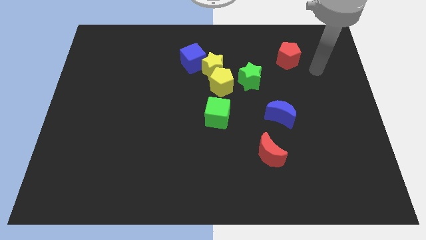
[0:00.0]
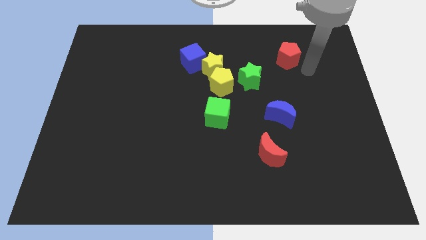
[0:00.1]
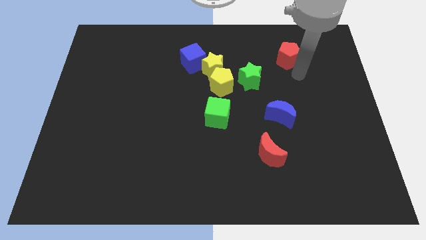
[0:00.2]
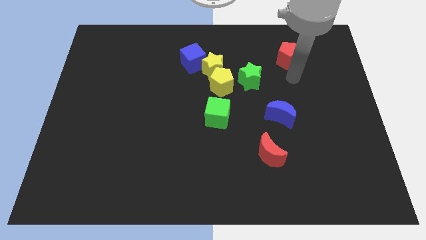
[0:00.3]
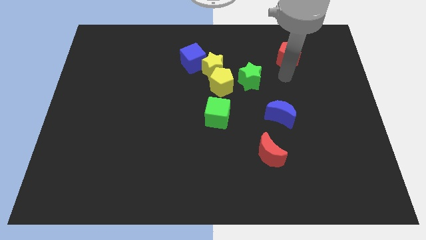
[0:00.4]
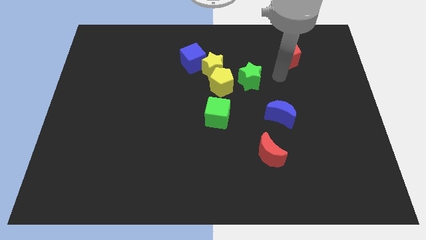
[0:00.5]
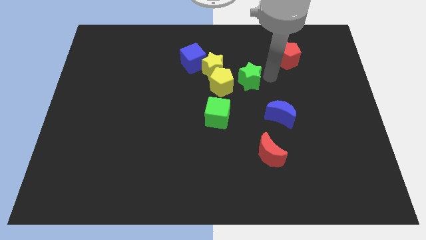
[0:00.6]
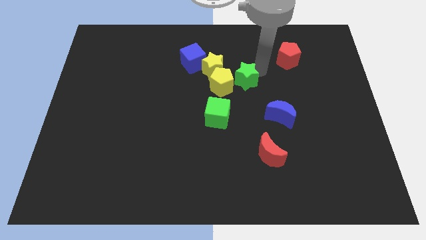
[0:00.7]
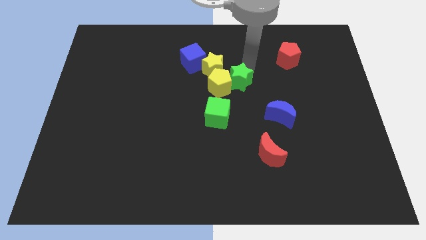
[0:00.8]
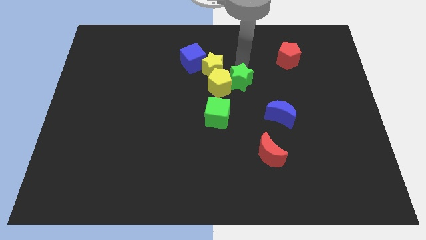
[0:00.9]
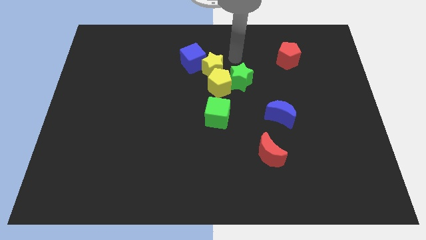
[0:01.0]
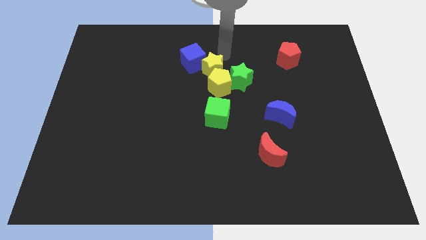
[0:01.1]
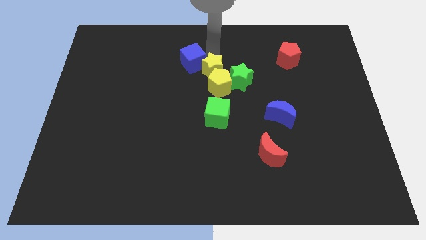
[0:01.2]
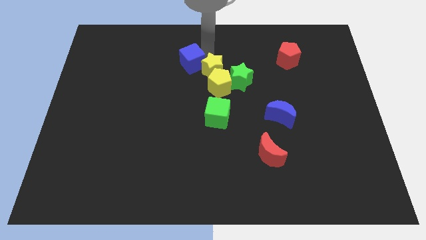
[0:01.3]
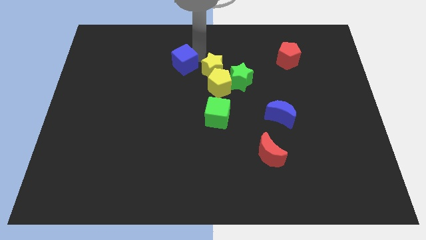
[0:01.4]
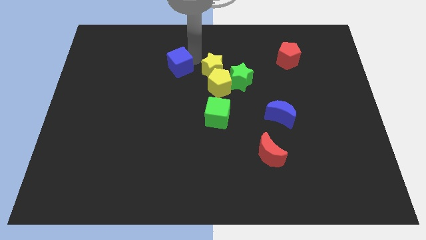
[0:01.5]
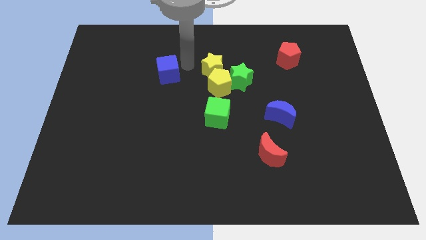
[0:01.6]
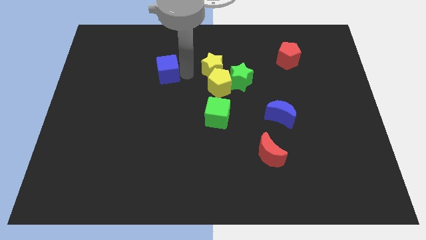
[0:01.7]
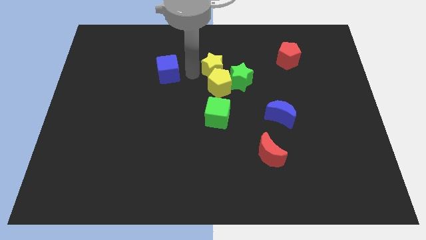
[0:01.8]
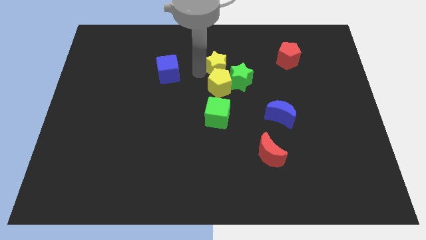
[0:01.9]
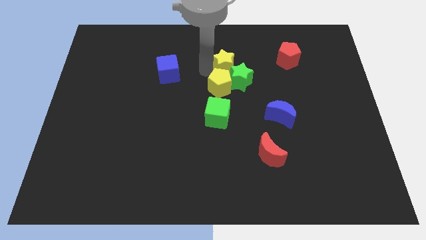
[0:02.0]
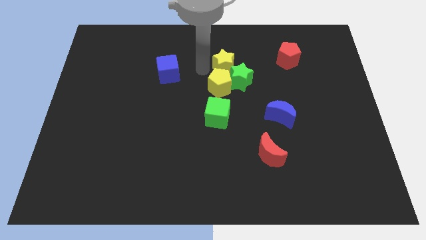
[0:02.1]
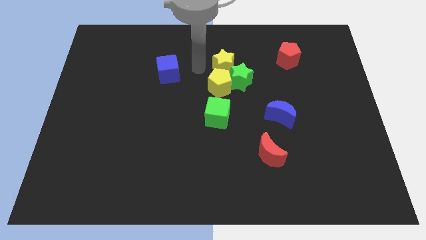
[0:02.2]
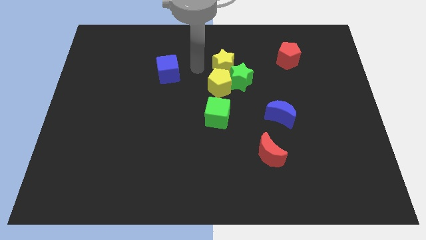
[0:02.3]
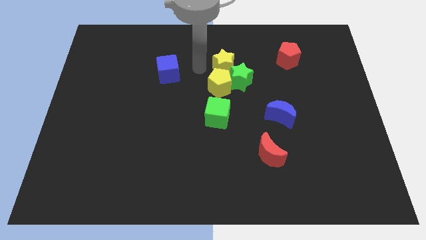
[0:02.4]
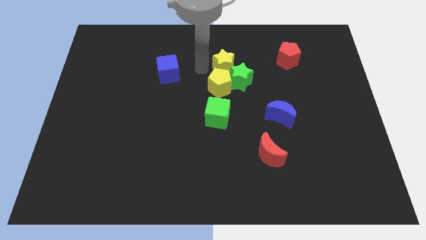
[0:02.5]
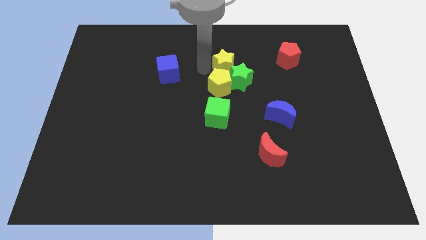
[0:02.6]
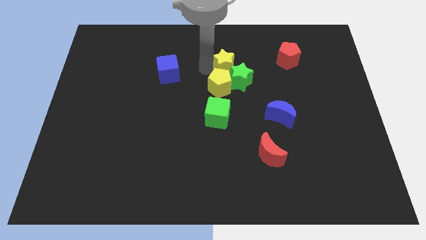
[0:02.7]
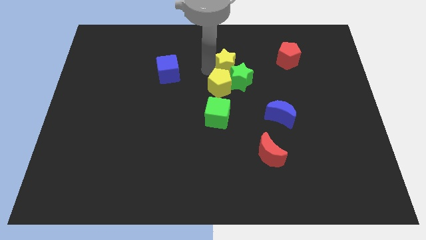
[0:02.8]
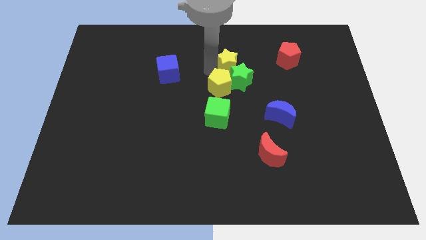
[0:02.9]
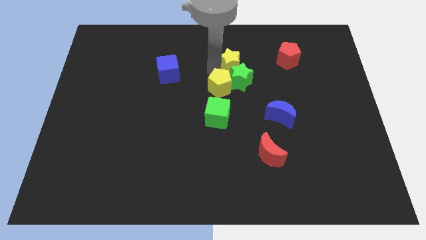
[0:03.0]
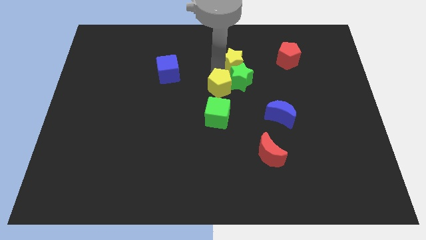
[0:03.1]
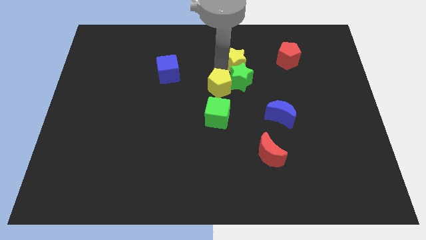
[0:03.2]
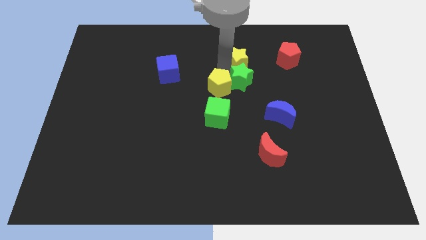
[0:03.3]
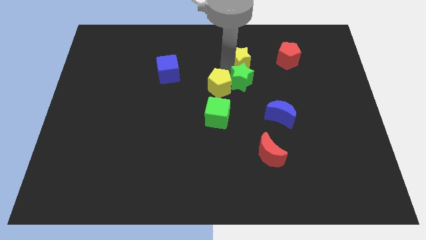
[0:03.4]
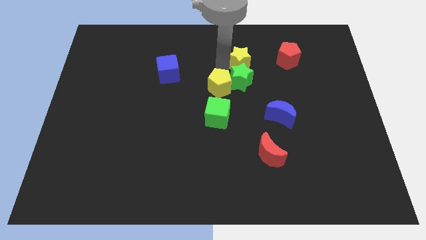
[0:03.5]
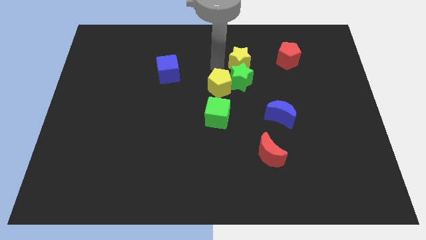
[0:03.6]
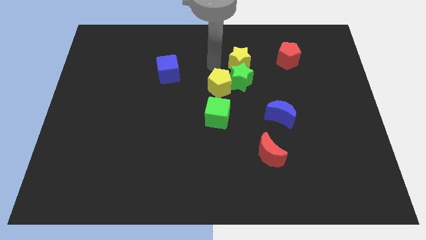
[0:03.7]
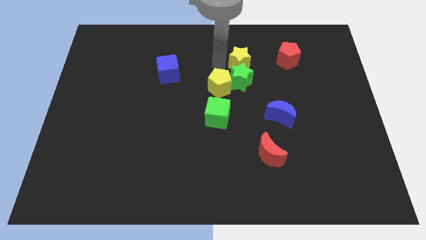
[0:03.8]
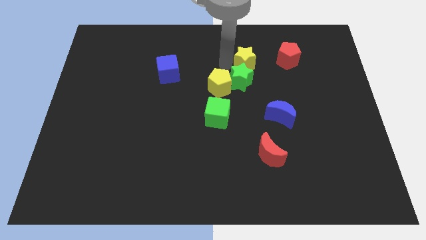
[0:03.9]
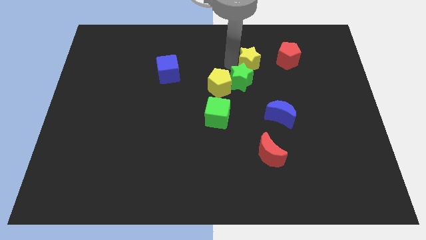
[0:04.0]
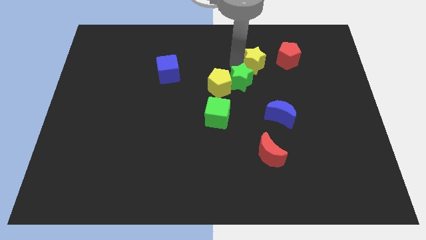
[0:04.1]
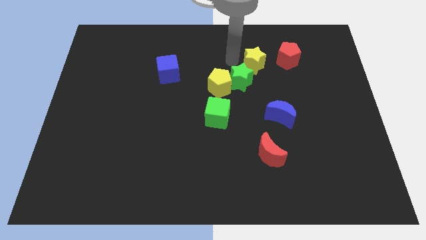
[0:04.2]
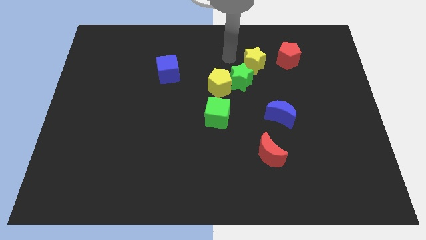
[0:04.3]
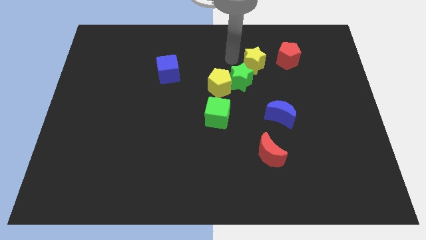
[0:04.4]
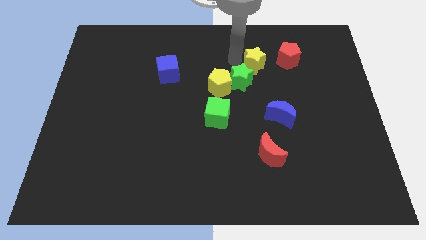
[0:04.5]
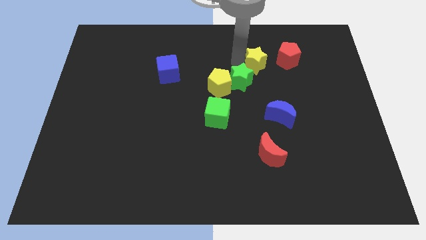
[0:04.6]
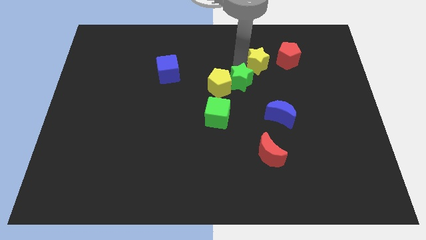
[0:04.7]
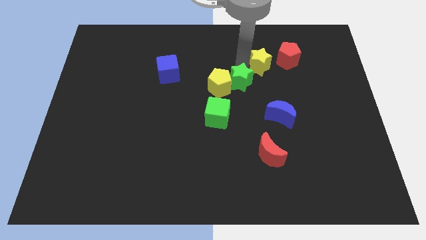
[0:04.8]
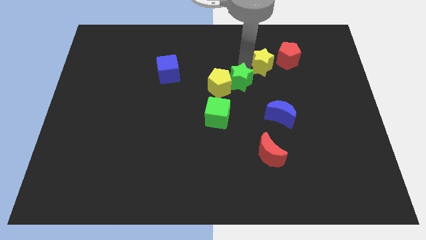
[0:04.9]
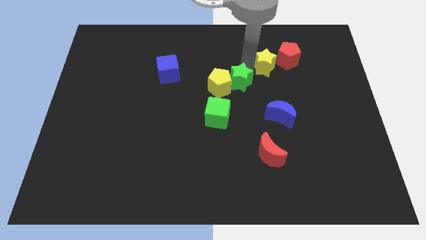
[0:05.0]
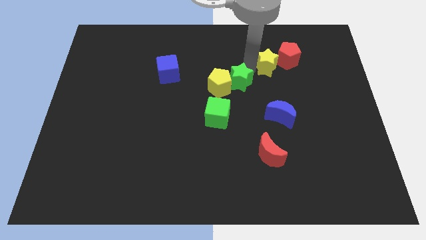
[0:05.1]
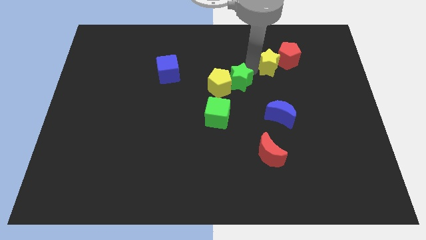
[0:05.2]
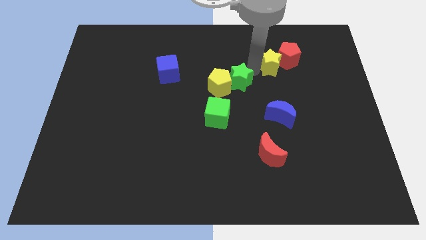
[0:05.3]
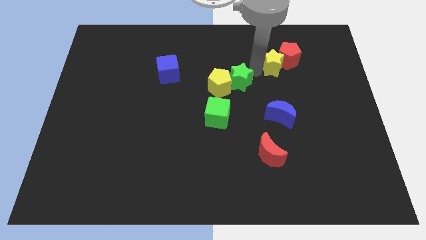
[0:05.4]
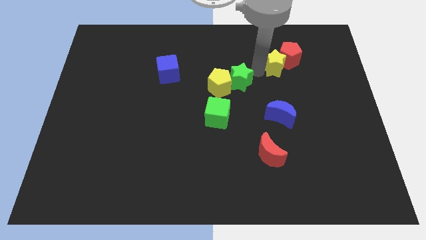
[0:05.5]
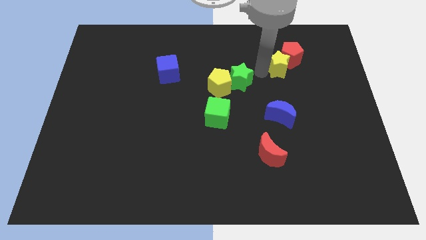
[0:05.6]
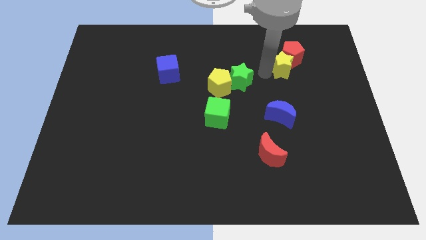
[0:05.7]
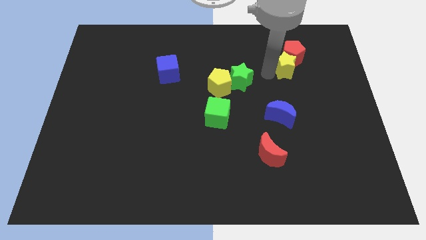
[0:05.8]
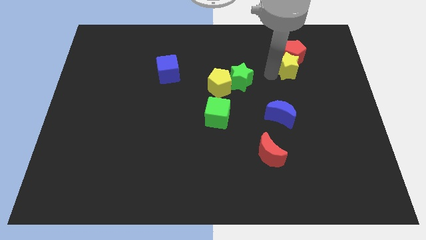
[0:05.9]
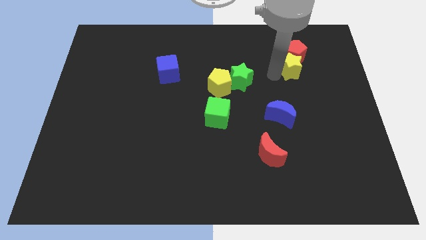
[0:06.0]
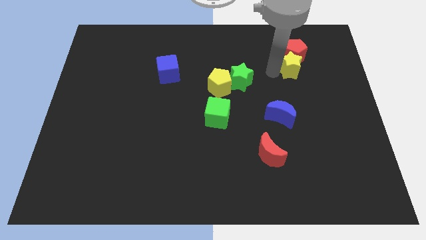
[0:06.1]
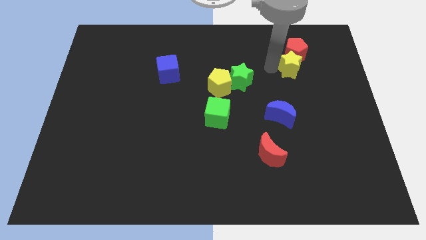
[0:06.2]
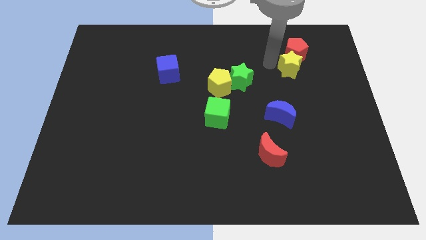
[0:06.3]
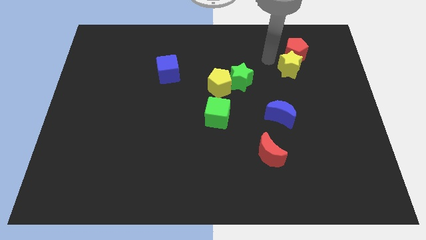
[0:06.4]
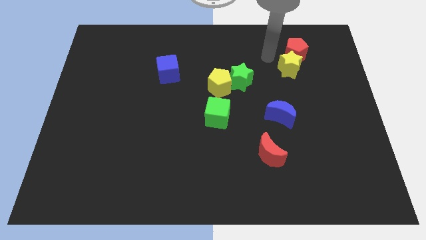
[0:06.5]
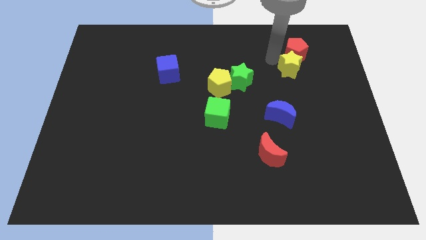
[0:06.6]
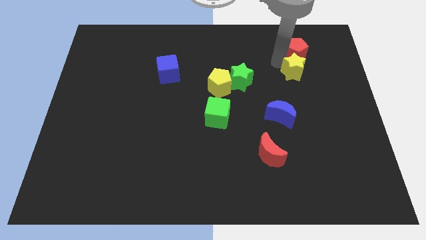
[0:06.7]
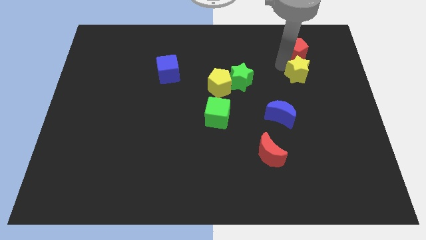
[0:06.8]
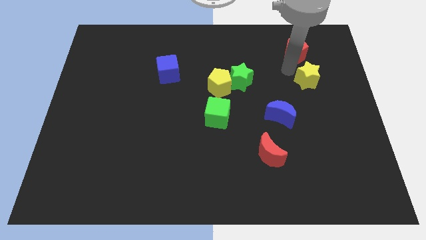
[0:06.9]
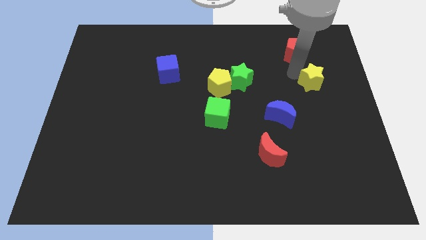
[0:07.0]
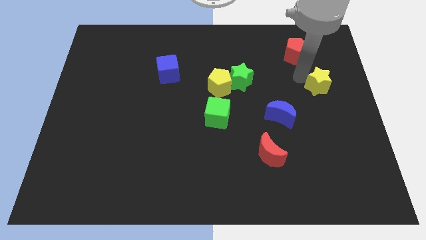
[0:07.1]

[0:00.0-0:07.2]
move the yellow star to the right side
